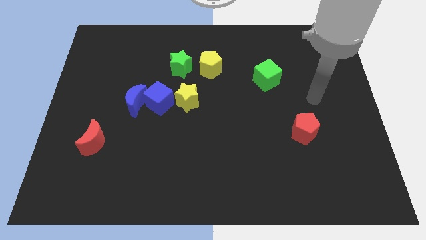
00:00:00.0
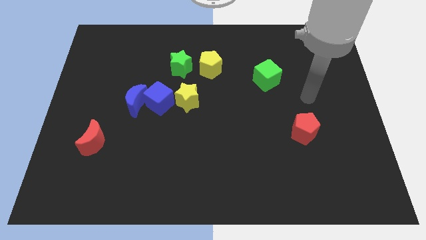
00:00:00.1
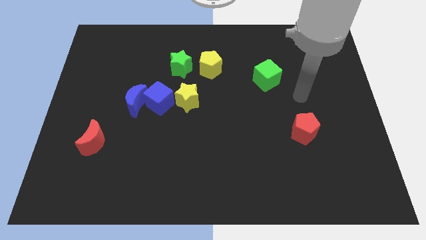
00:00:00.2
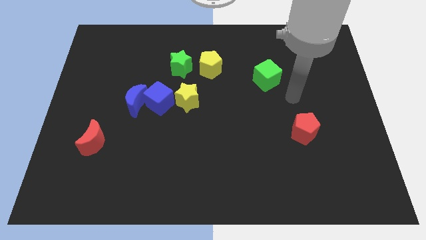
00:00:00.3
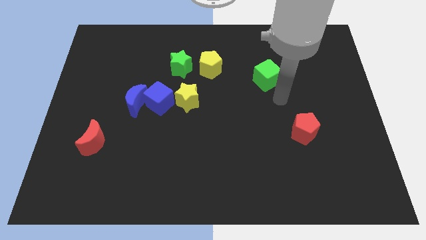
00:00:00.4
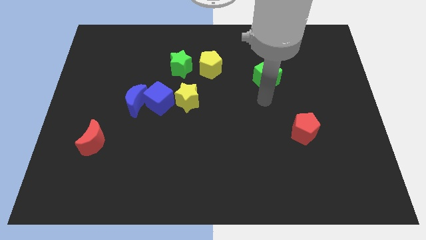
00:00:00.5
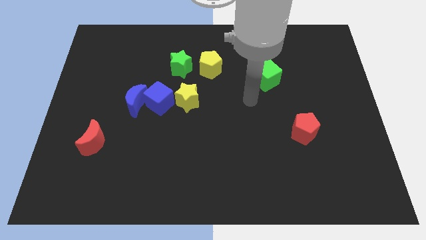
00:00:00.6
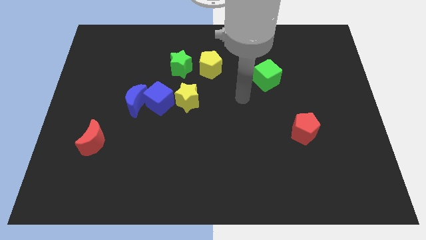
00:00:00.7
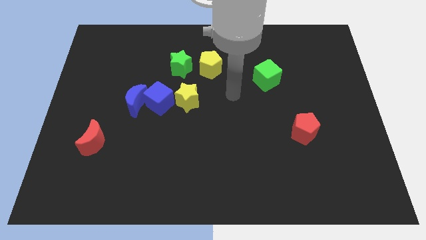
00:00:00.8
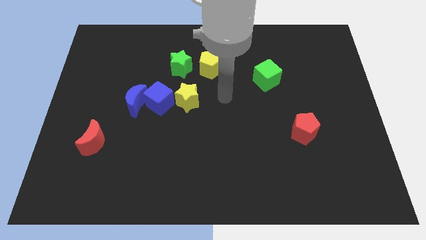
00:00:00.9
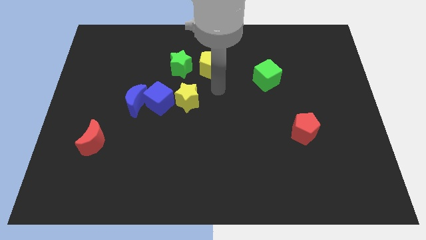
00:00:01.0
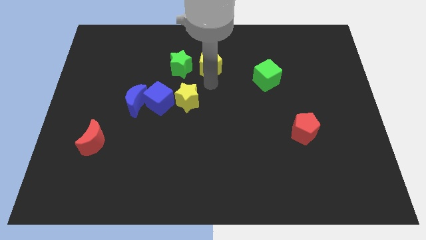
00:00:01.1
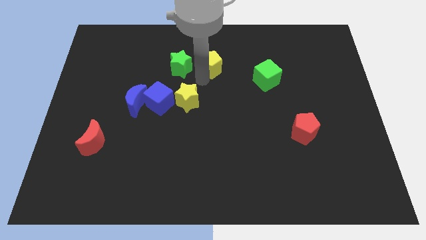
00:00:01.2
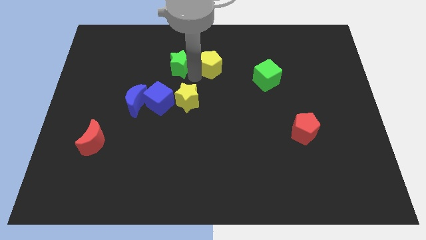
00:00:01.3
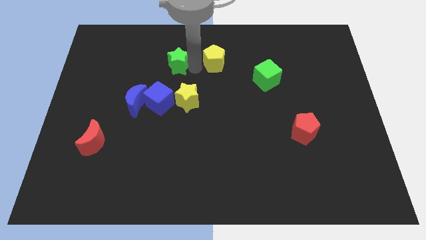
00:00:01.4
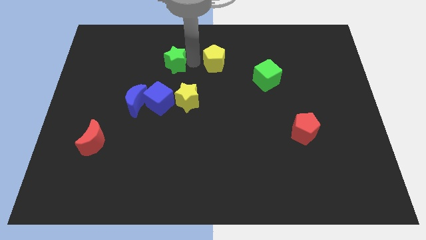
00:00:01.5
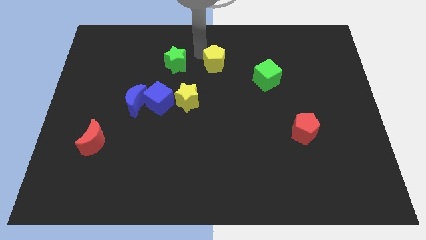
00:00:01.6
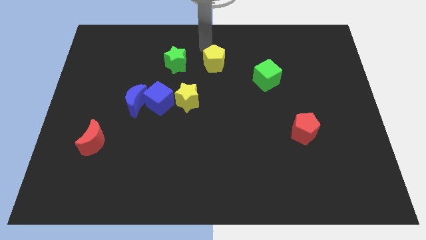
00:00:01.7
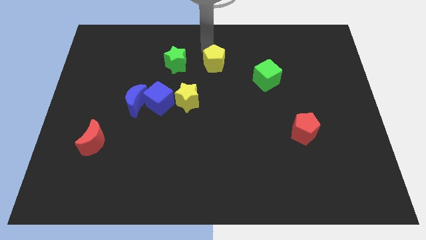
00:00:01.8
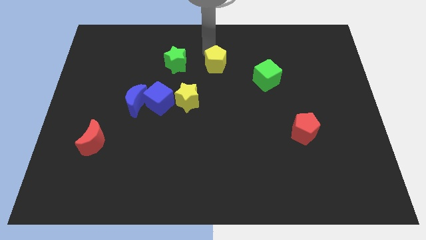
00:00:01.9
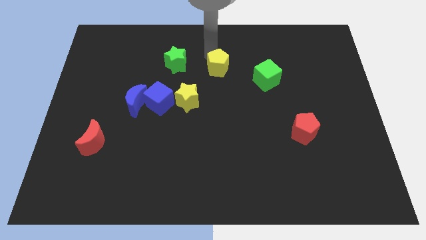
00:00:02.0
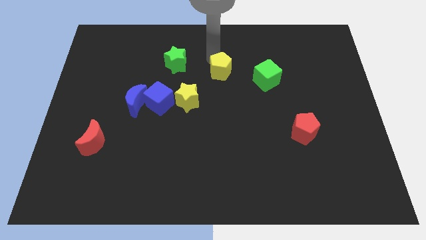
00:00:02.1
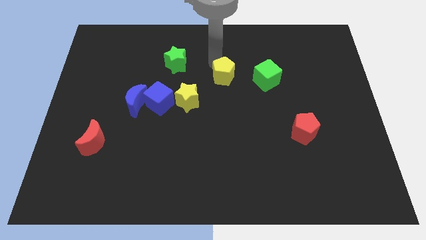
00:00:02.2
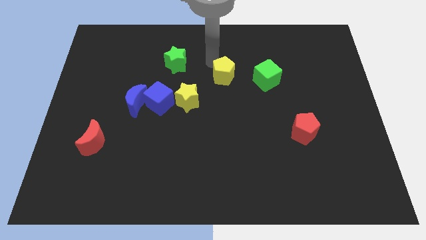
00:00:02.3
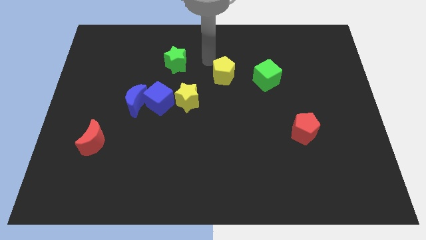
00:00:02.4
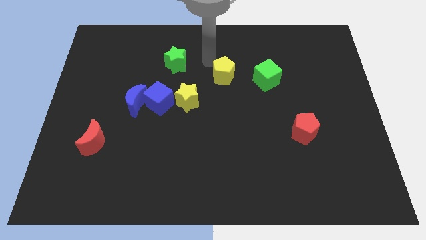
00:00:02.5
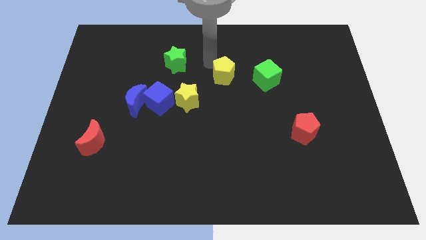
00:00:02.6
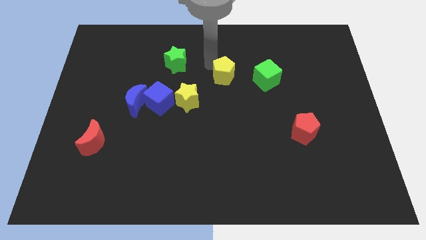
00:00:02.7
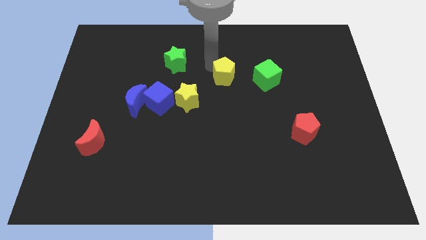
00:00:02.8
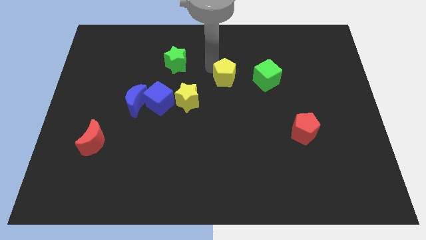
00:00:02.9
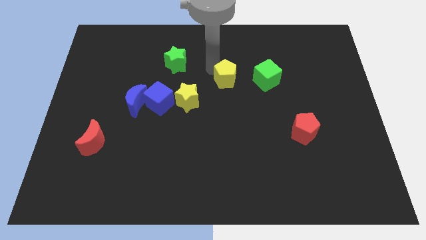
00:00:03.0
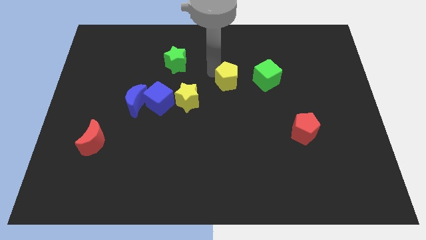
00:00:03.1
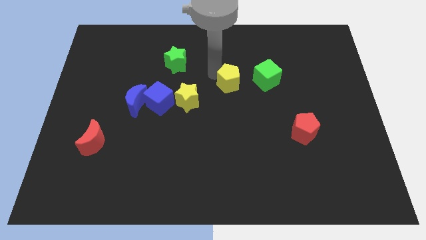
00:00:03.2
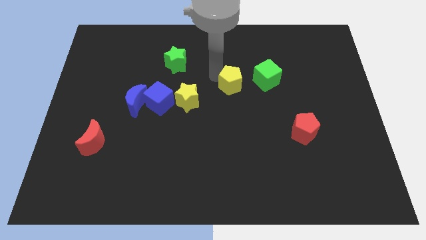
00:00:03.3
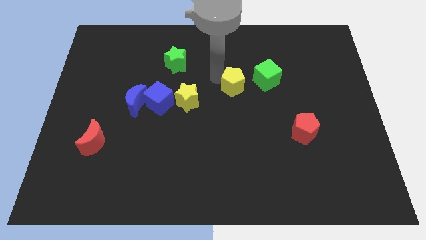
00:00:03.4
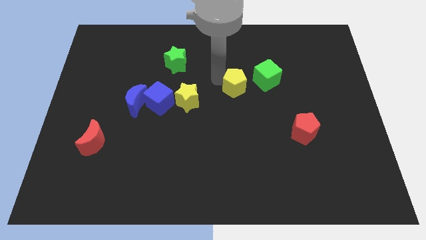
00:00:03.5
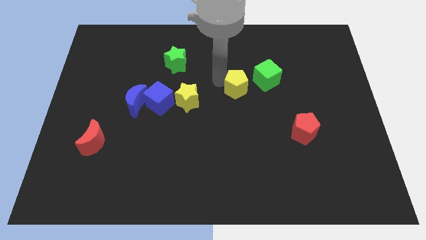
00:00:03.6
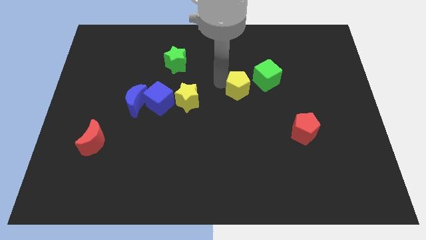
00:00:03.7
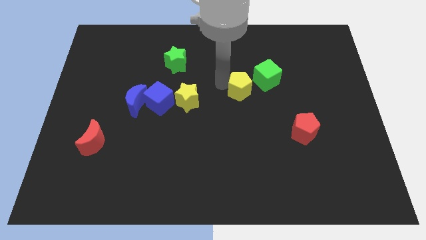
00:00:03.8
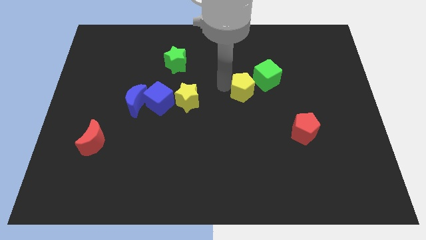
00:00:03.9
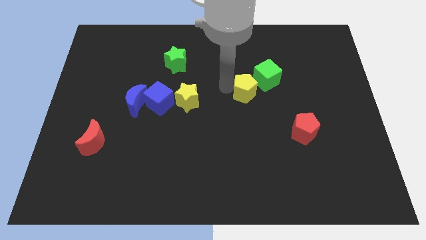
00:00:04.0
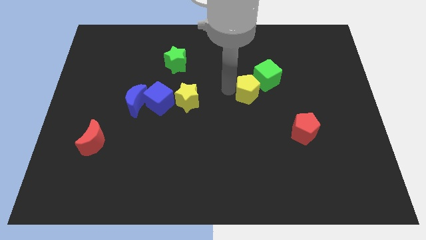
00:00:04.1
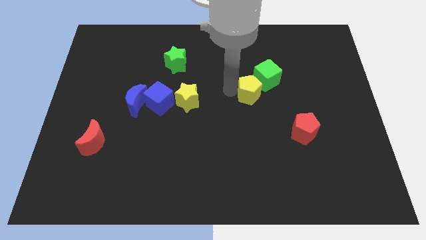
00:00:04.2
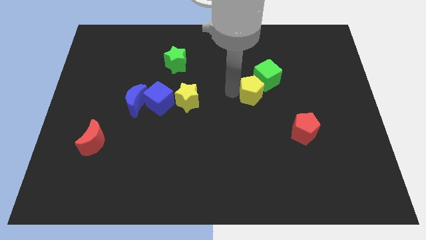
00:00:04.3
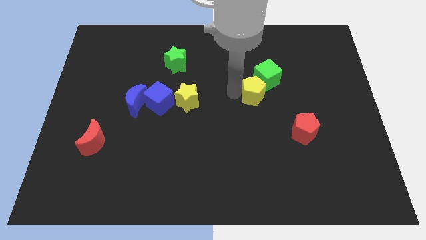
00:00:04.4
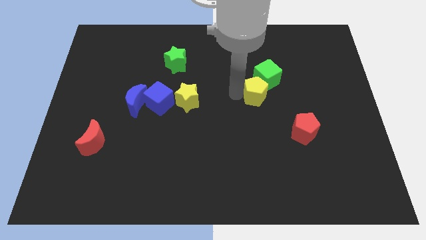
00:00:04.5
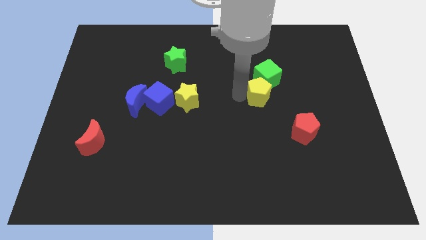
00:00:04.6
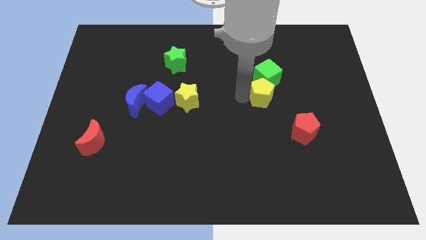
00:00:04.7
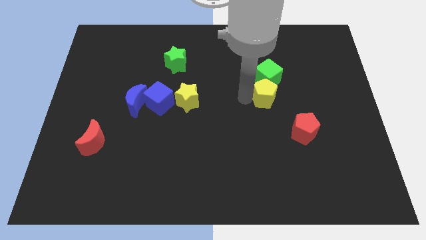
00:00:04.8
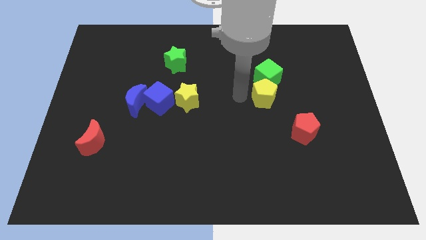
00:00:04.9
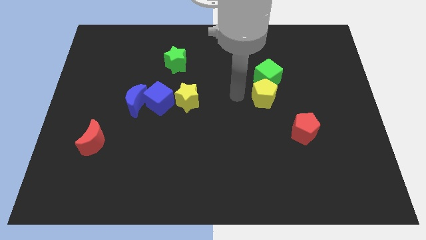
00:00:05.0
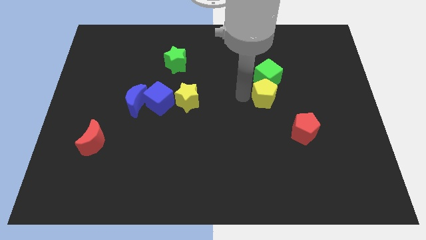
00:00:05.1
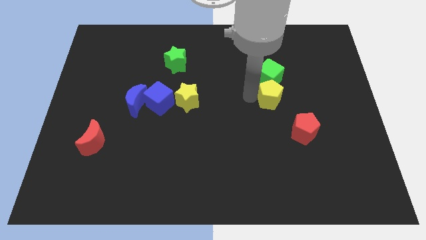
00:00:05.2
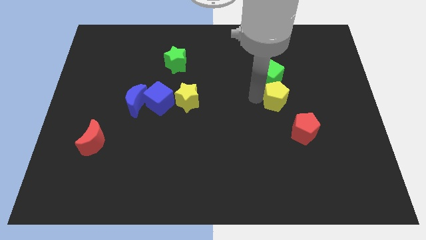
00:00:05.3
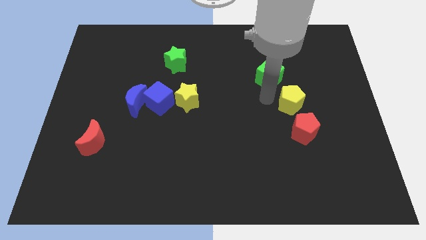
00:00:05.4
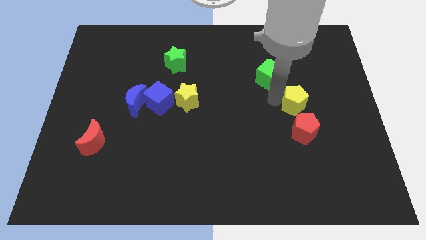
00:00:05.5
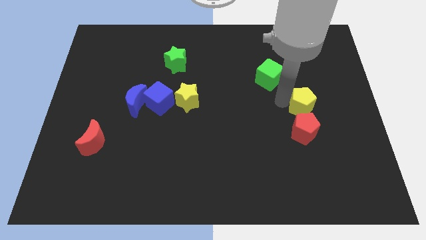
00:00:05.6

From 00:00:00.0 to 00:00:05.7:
slide the yellow pentagon diagonally up and to the right of the red pentagon

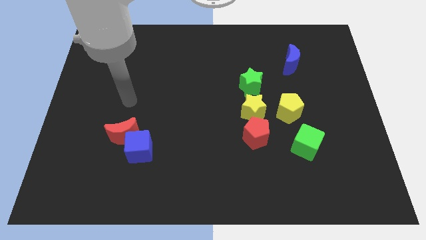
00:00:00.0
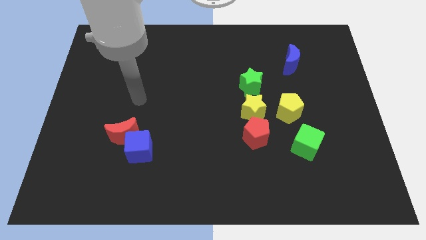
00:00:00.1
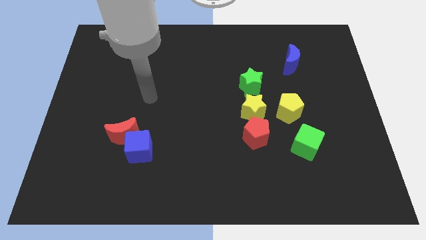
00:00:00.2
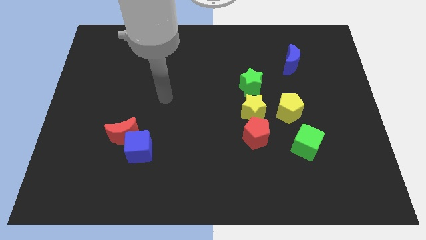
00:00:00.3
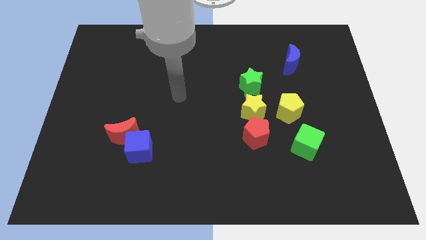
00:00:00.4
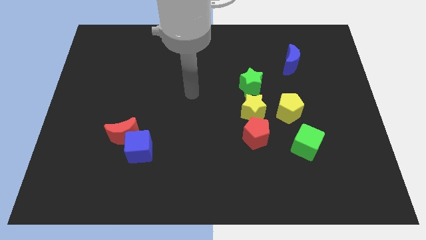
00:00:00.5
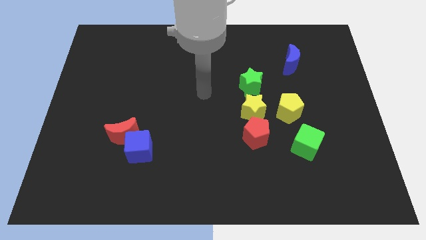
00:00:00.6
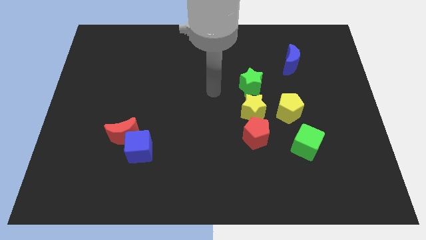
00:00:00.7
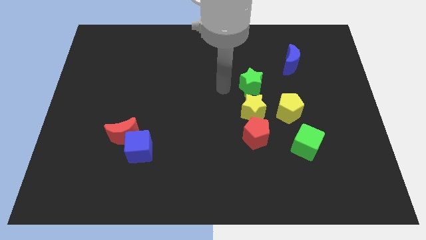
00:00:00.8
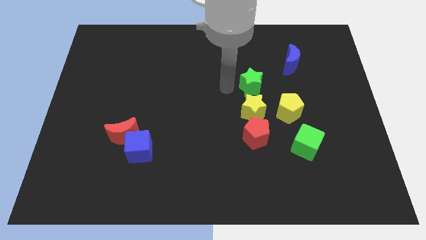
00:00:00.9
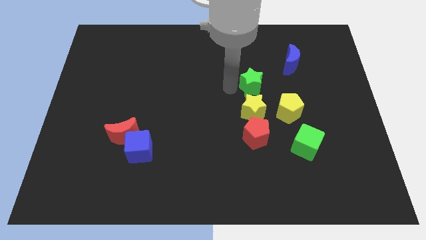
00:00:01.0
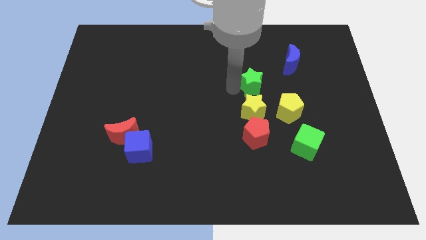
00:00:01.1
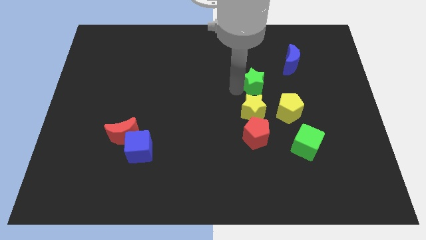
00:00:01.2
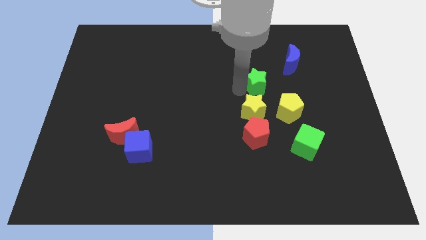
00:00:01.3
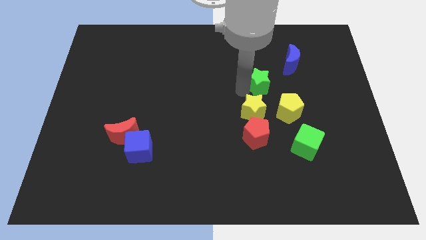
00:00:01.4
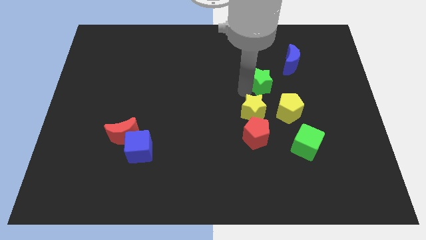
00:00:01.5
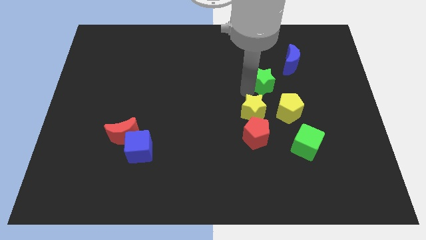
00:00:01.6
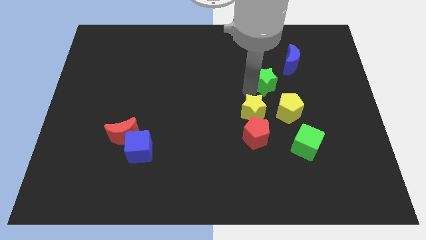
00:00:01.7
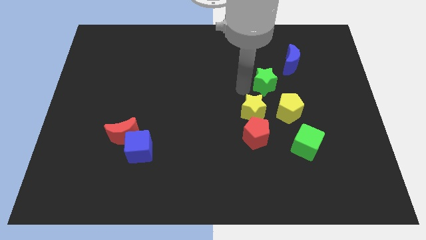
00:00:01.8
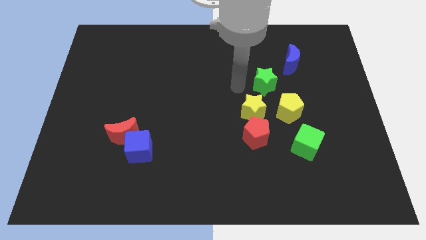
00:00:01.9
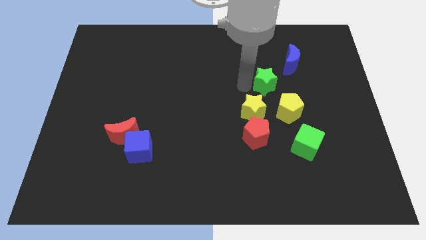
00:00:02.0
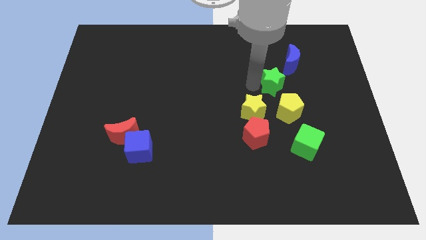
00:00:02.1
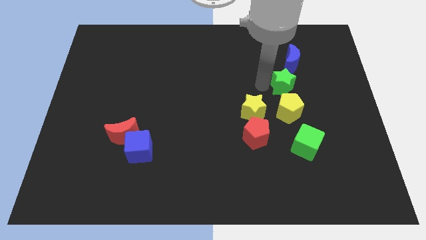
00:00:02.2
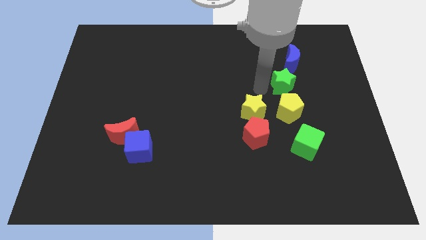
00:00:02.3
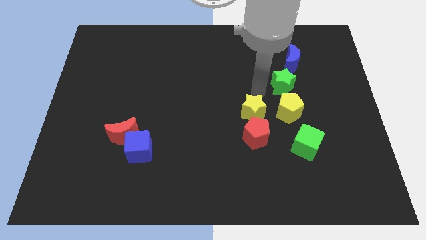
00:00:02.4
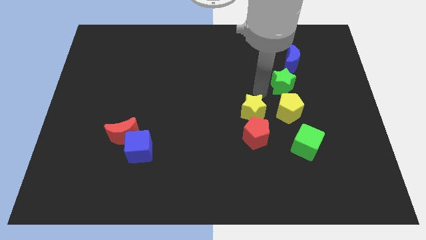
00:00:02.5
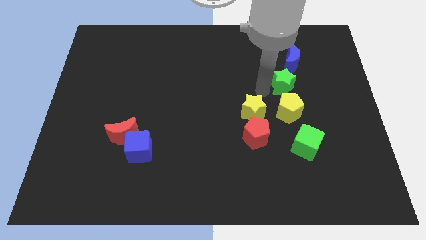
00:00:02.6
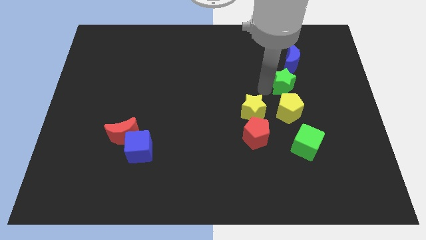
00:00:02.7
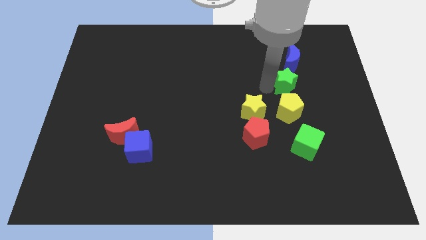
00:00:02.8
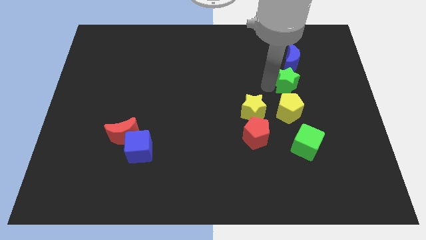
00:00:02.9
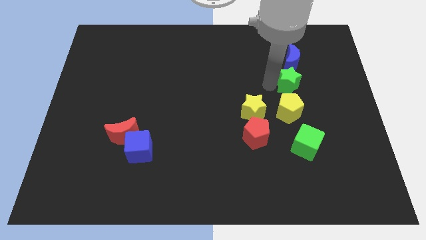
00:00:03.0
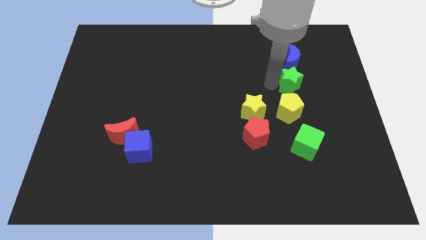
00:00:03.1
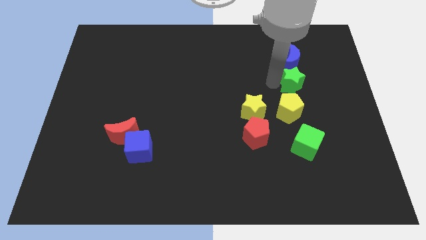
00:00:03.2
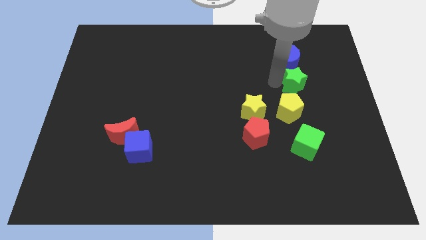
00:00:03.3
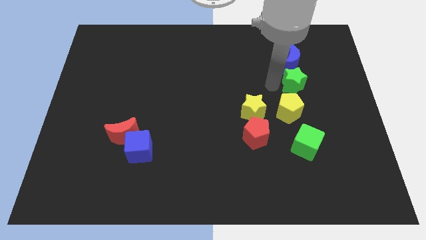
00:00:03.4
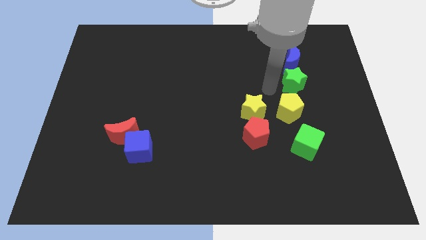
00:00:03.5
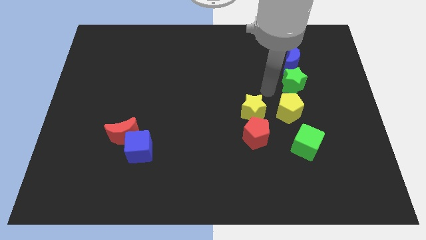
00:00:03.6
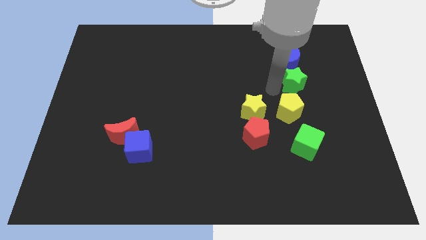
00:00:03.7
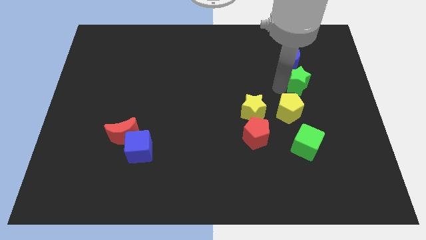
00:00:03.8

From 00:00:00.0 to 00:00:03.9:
push the green star diagonally down and to the right of the blue moon
